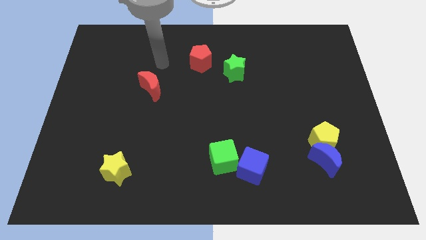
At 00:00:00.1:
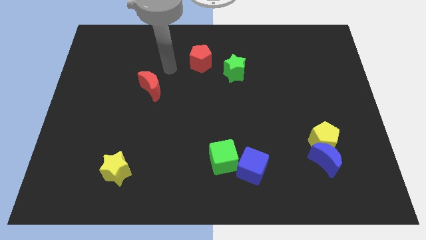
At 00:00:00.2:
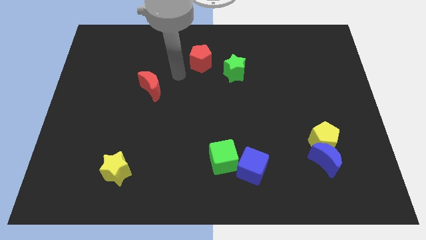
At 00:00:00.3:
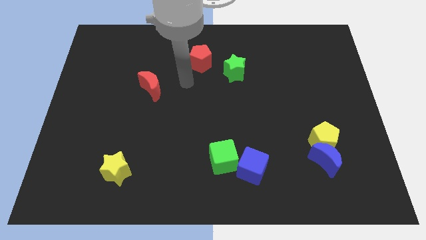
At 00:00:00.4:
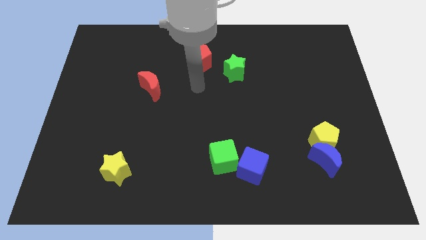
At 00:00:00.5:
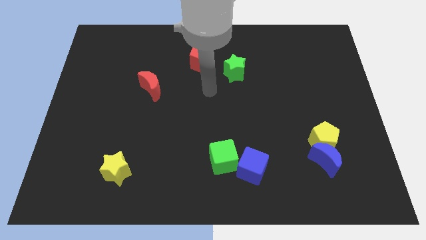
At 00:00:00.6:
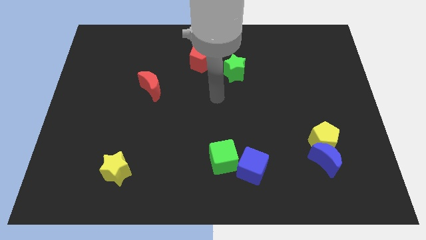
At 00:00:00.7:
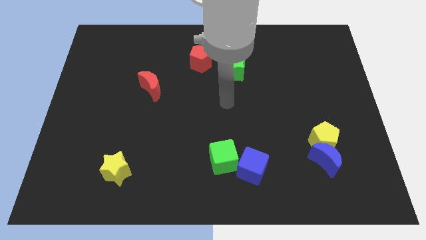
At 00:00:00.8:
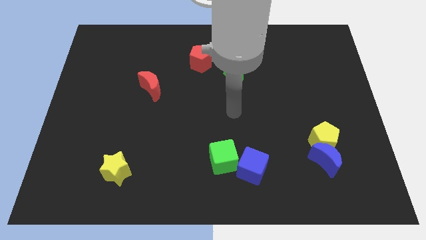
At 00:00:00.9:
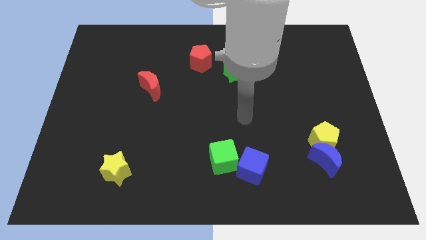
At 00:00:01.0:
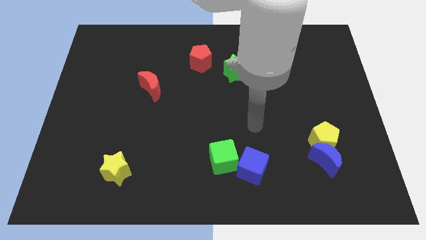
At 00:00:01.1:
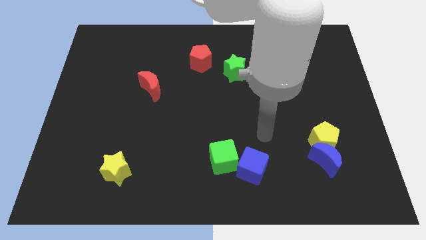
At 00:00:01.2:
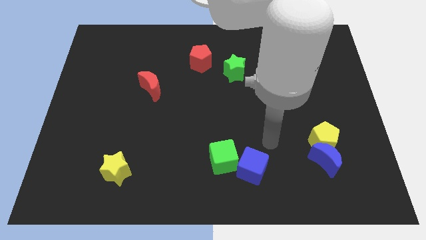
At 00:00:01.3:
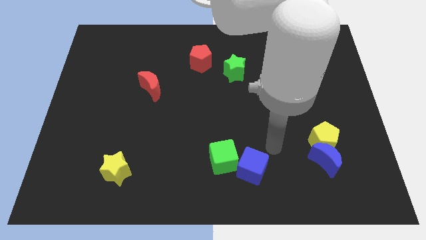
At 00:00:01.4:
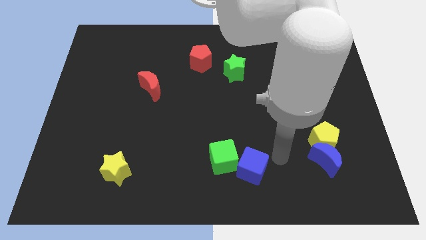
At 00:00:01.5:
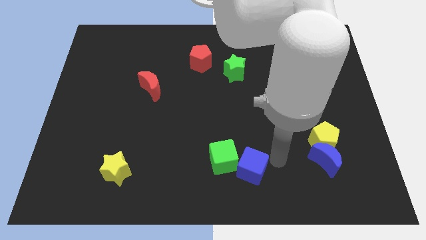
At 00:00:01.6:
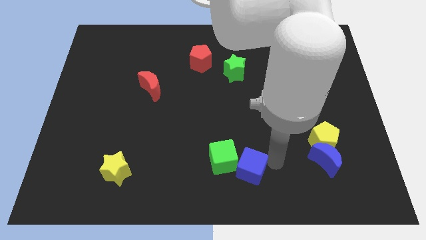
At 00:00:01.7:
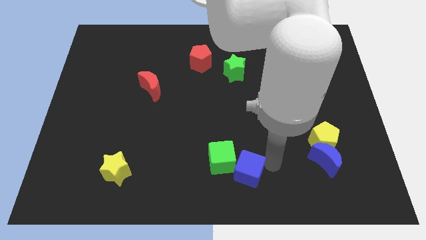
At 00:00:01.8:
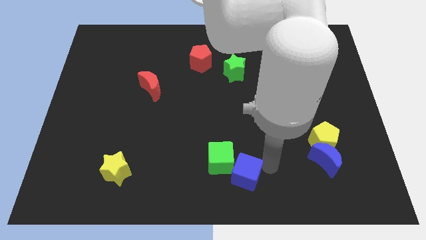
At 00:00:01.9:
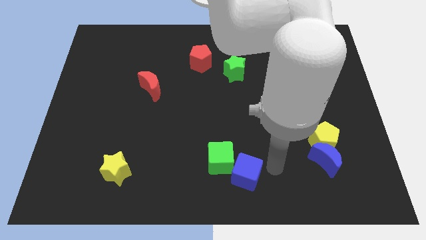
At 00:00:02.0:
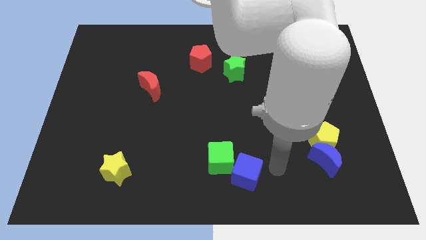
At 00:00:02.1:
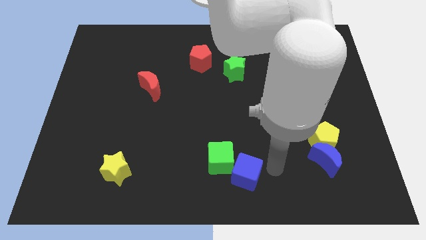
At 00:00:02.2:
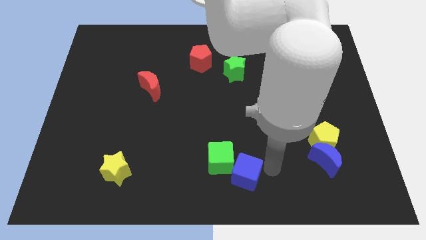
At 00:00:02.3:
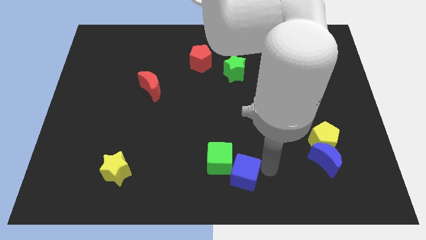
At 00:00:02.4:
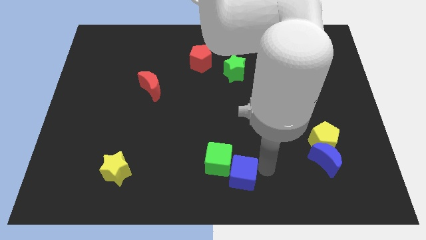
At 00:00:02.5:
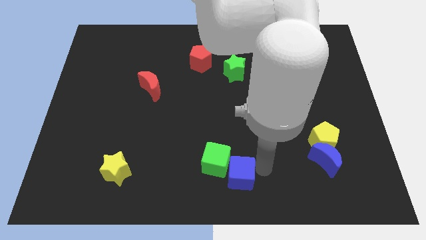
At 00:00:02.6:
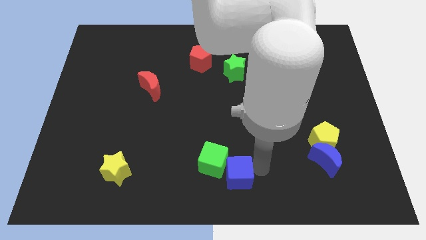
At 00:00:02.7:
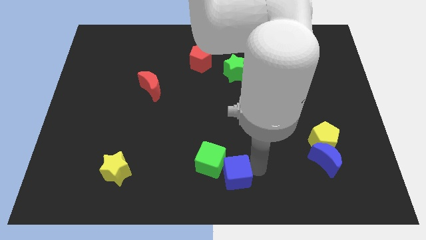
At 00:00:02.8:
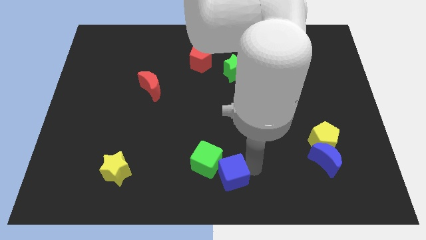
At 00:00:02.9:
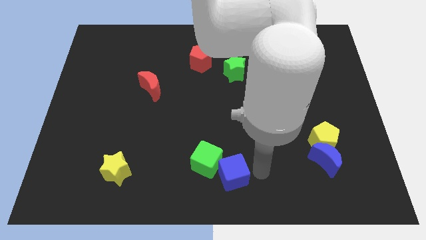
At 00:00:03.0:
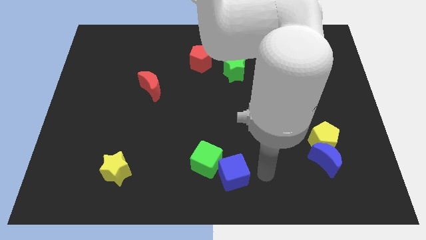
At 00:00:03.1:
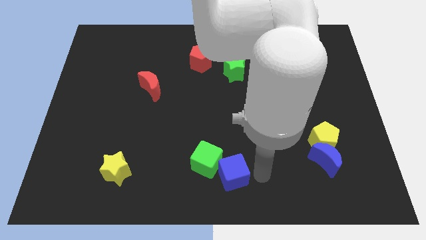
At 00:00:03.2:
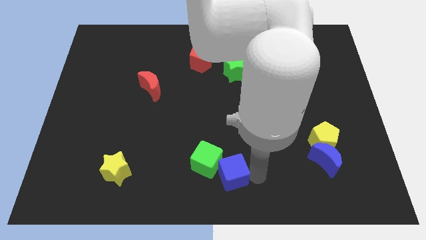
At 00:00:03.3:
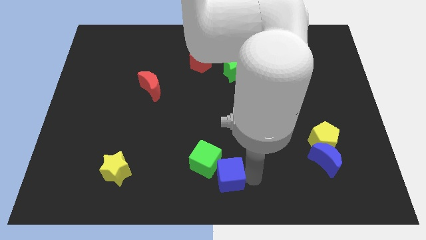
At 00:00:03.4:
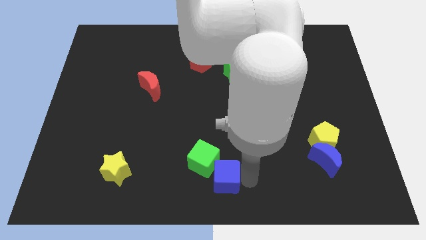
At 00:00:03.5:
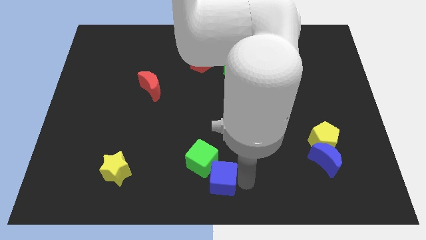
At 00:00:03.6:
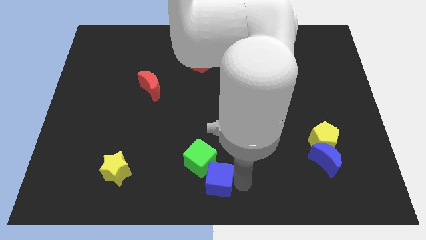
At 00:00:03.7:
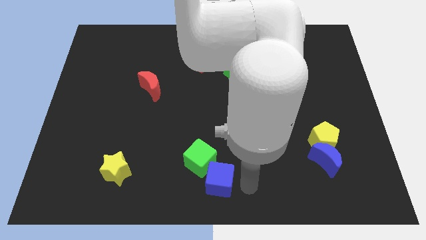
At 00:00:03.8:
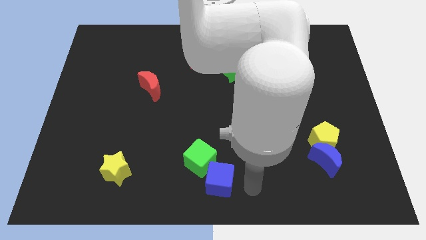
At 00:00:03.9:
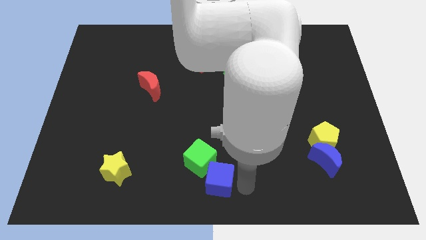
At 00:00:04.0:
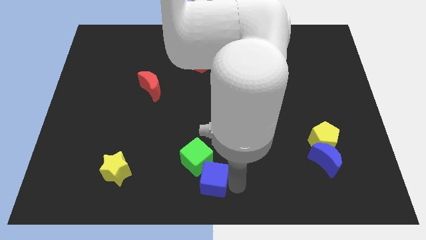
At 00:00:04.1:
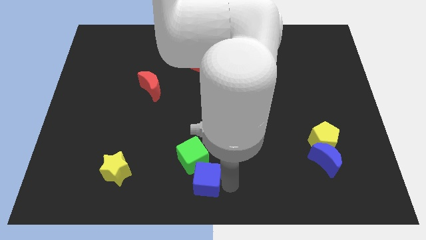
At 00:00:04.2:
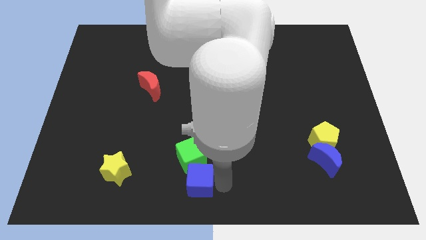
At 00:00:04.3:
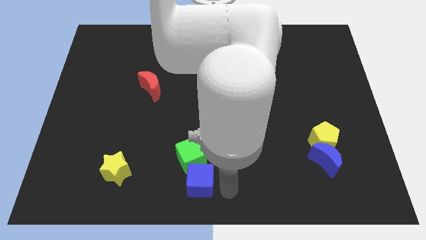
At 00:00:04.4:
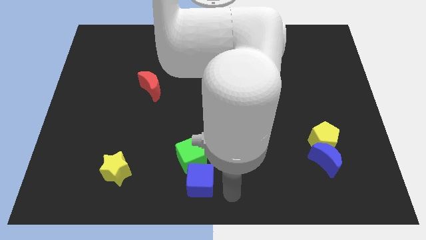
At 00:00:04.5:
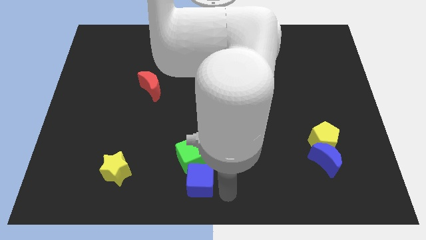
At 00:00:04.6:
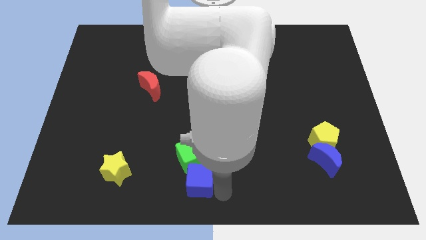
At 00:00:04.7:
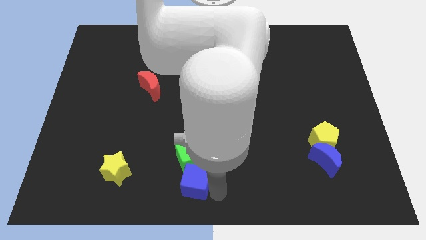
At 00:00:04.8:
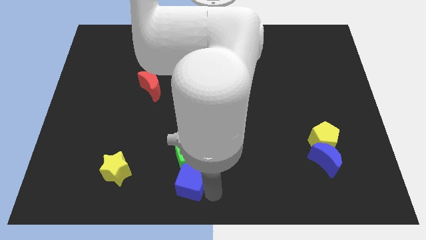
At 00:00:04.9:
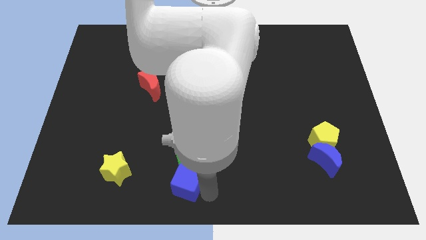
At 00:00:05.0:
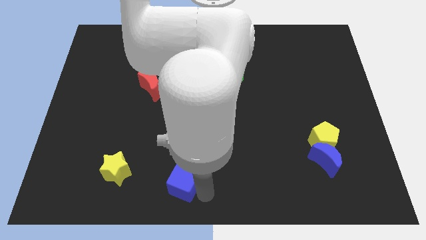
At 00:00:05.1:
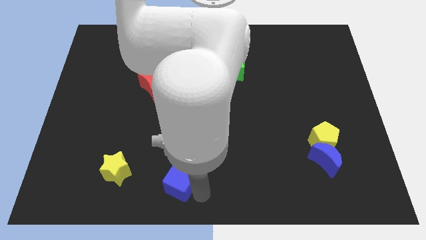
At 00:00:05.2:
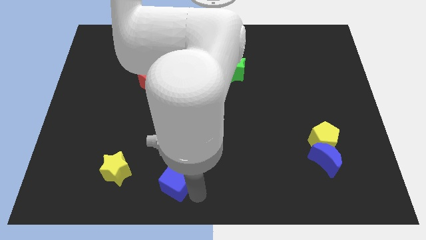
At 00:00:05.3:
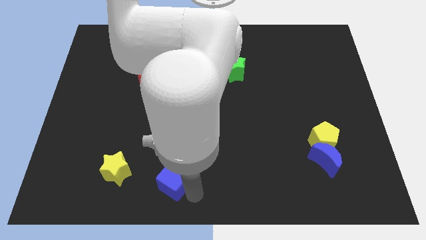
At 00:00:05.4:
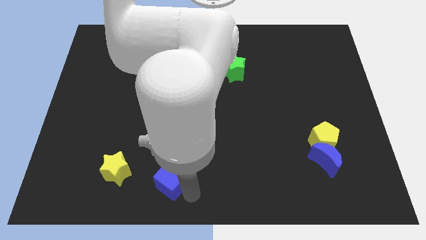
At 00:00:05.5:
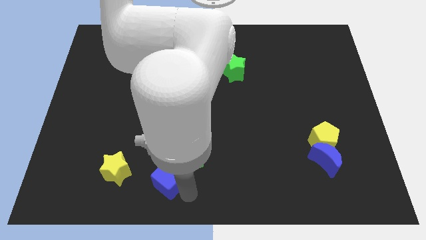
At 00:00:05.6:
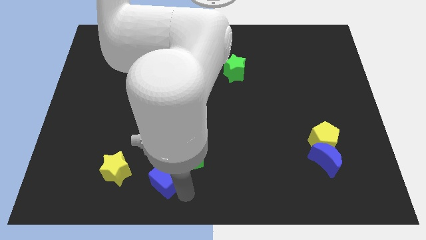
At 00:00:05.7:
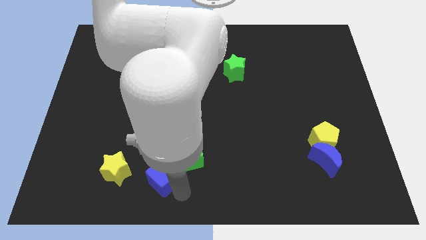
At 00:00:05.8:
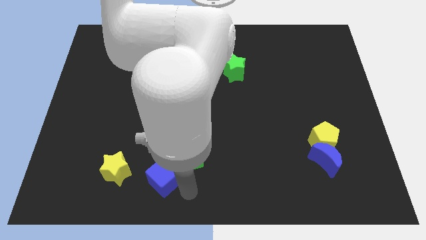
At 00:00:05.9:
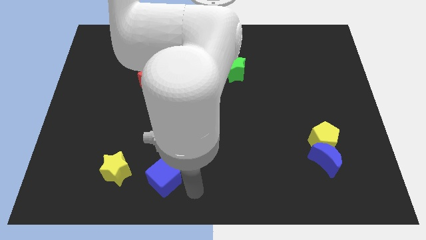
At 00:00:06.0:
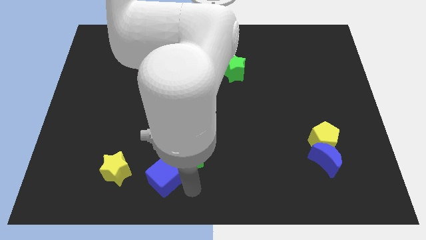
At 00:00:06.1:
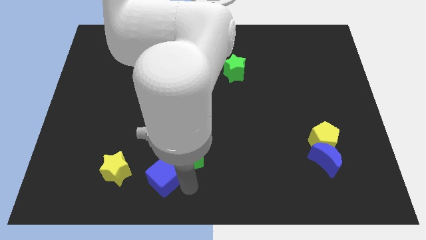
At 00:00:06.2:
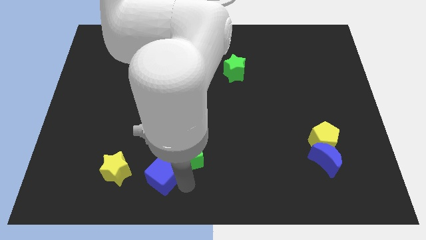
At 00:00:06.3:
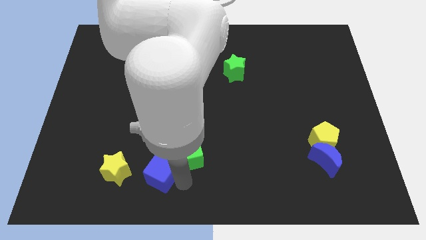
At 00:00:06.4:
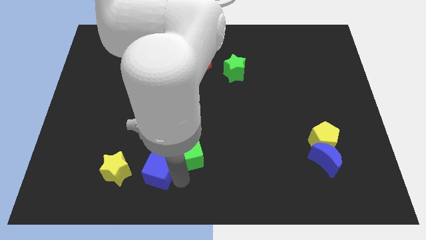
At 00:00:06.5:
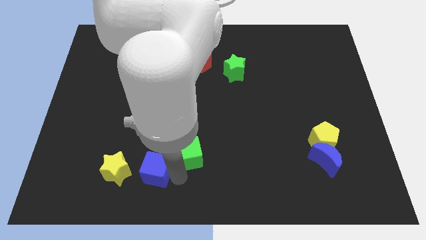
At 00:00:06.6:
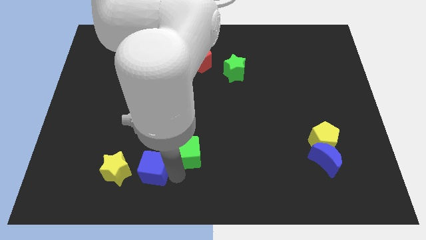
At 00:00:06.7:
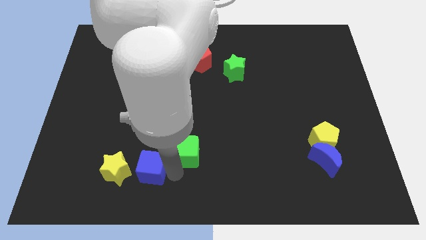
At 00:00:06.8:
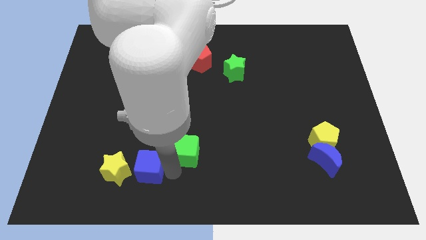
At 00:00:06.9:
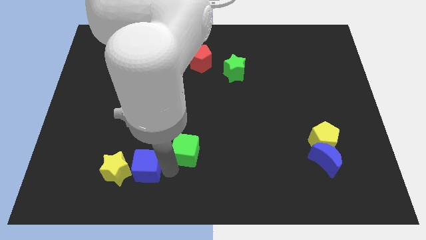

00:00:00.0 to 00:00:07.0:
push the blue cube next to the yellow star
